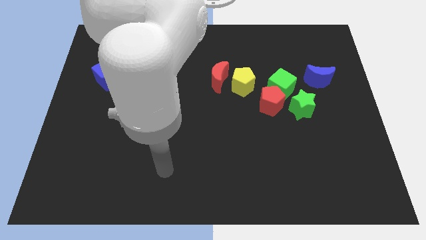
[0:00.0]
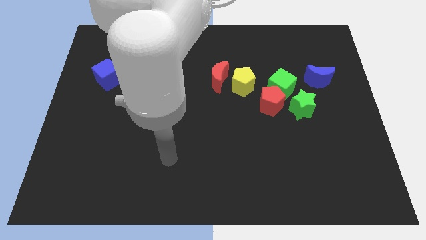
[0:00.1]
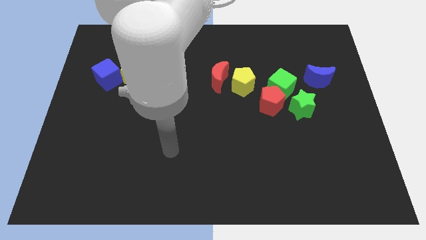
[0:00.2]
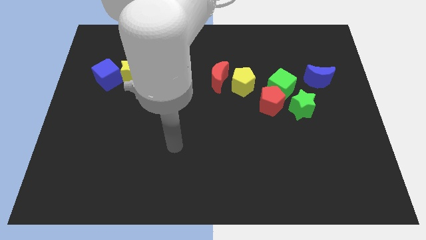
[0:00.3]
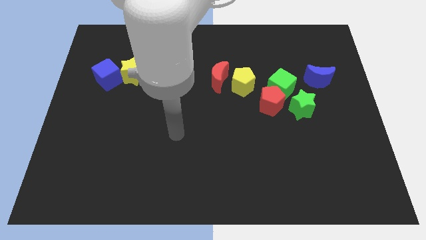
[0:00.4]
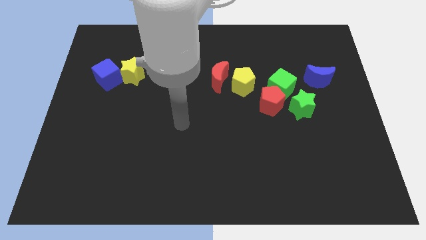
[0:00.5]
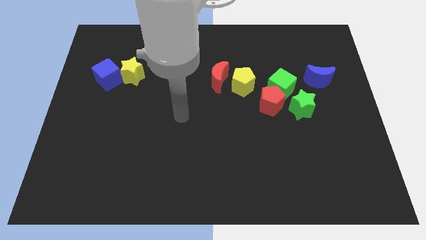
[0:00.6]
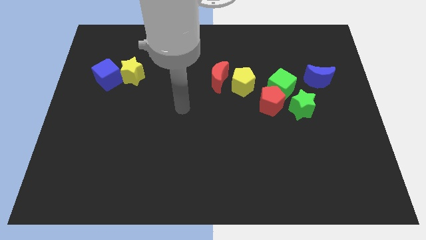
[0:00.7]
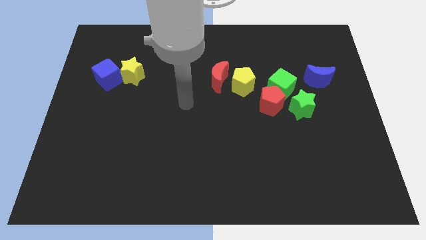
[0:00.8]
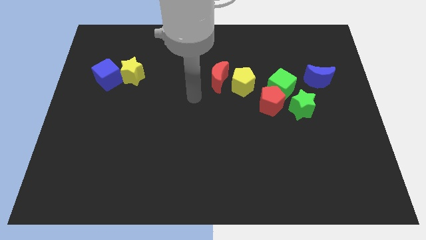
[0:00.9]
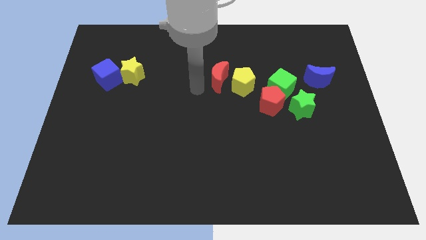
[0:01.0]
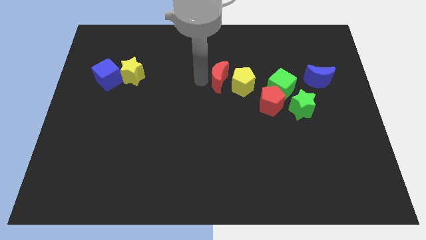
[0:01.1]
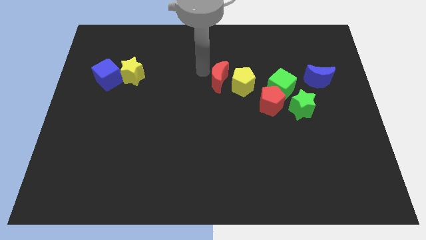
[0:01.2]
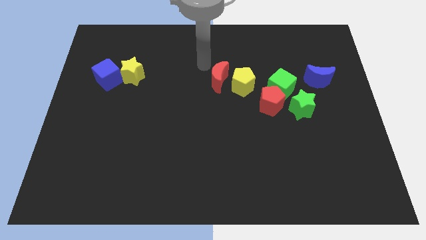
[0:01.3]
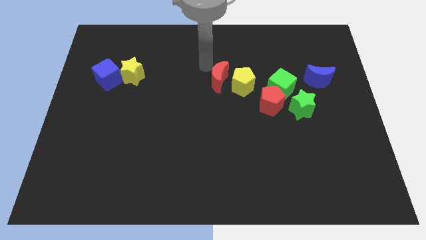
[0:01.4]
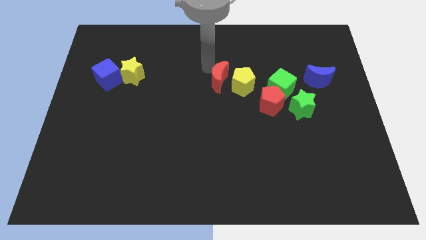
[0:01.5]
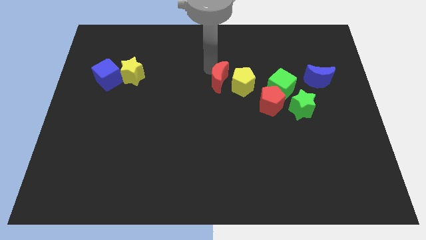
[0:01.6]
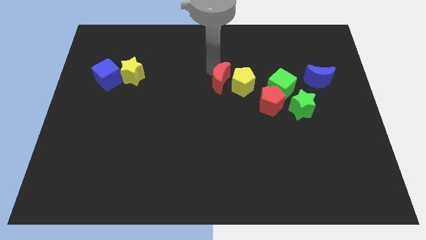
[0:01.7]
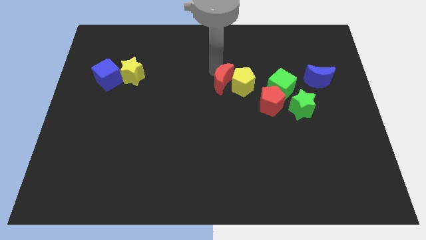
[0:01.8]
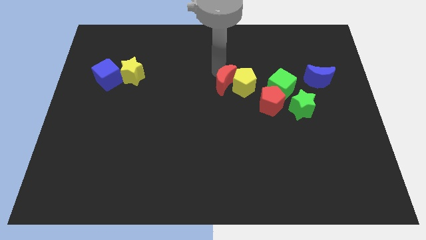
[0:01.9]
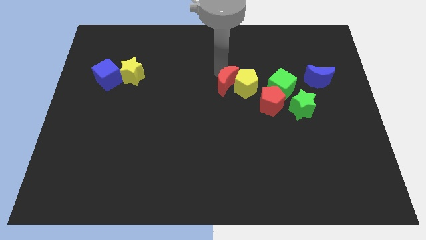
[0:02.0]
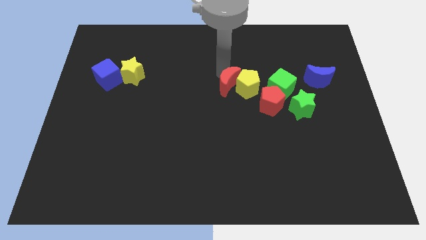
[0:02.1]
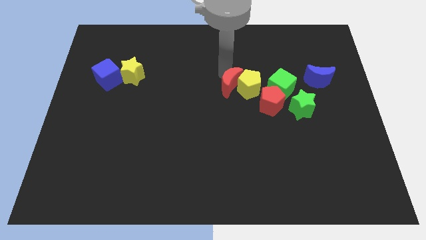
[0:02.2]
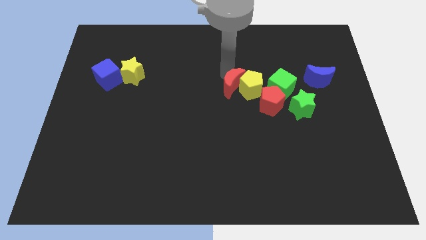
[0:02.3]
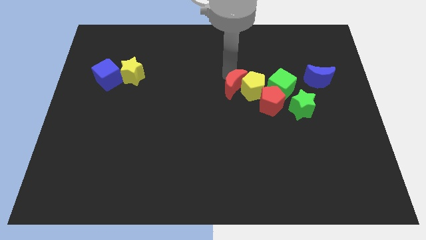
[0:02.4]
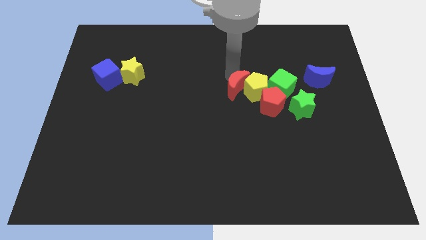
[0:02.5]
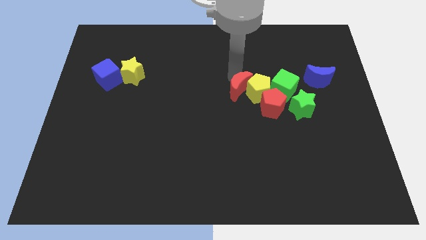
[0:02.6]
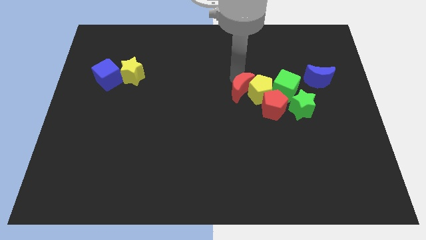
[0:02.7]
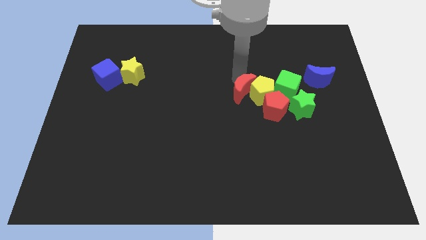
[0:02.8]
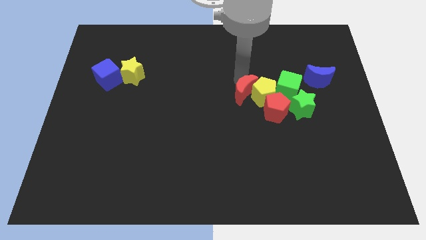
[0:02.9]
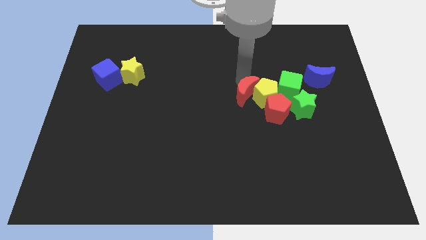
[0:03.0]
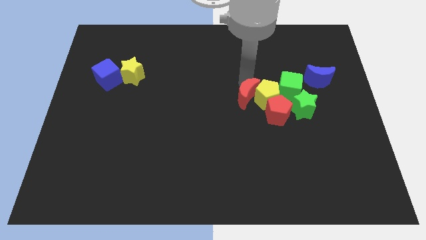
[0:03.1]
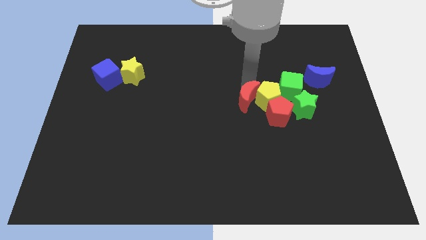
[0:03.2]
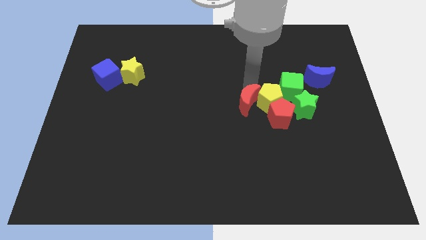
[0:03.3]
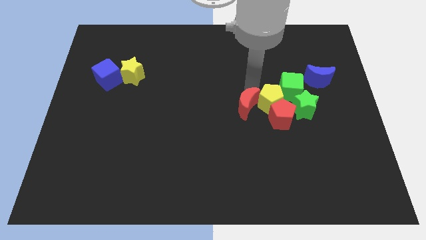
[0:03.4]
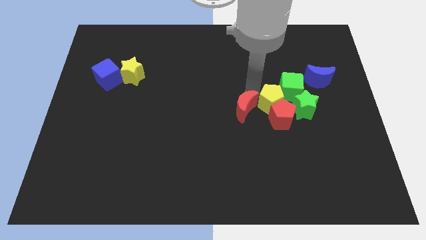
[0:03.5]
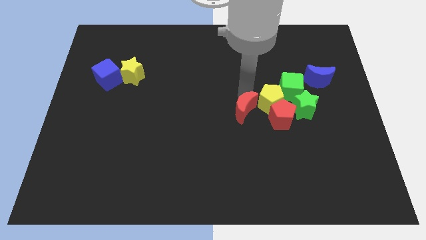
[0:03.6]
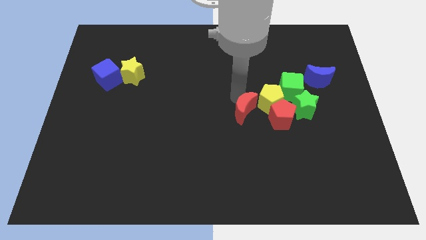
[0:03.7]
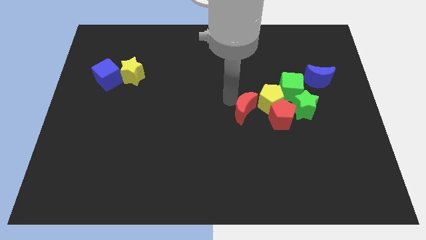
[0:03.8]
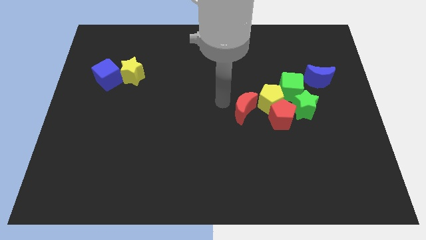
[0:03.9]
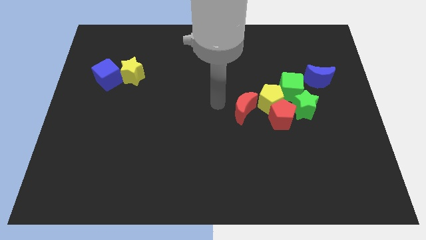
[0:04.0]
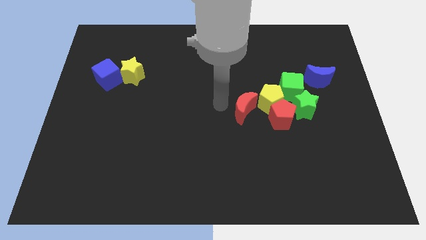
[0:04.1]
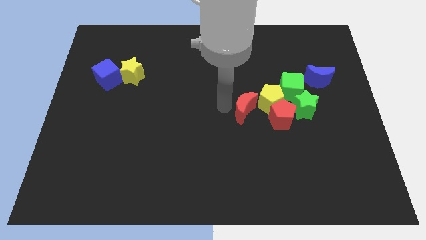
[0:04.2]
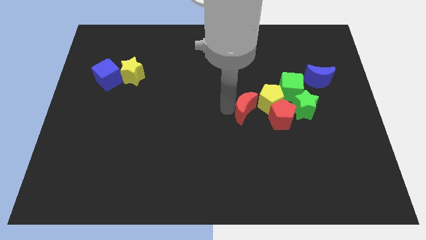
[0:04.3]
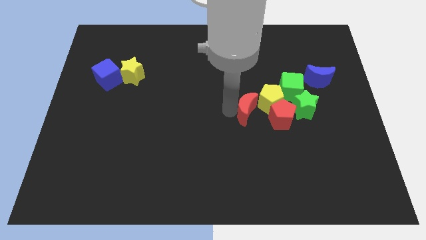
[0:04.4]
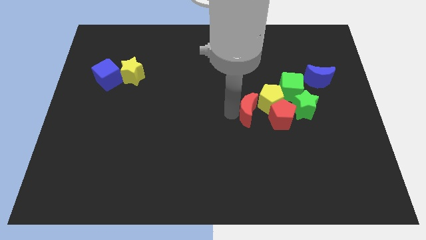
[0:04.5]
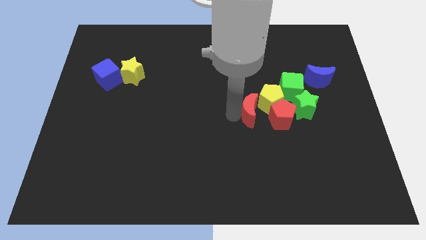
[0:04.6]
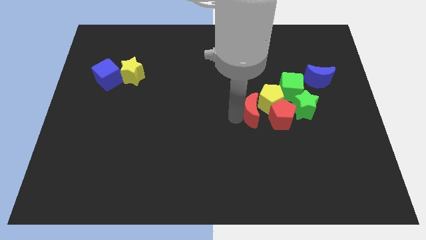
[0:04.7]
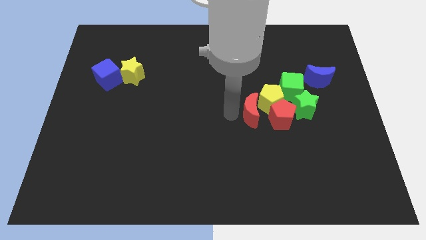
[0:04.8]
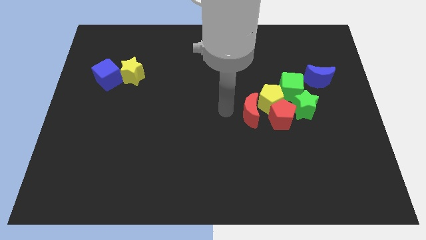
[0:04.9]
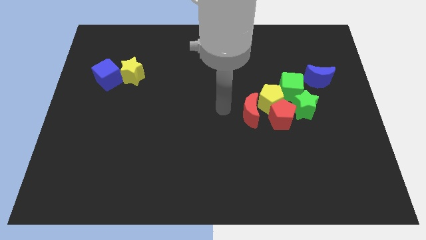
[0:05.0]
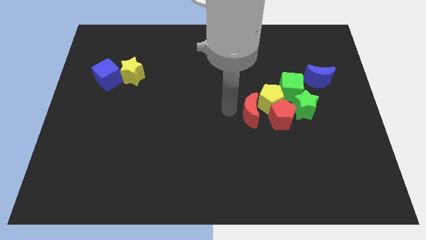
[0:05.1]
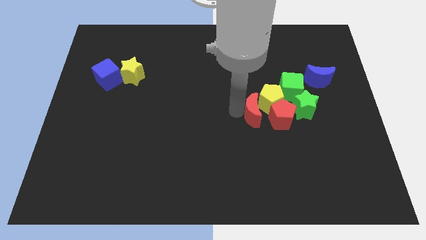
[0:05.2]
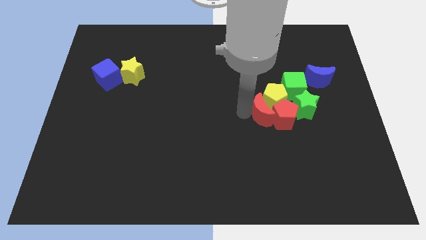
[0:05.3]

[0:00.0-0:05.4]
put the red moon next to the red pentagon

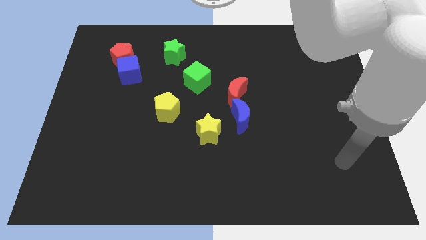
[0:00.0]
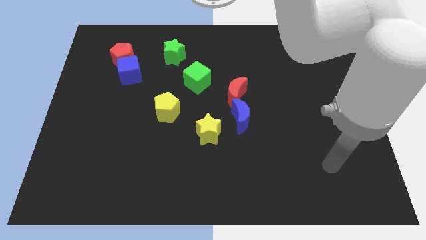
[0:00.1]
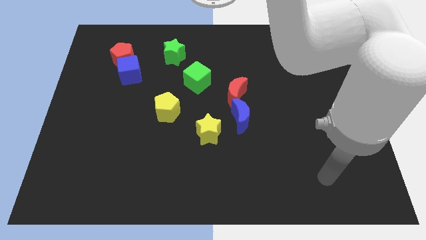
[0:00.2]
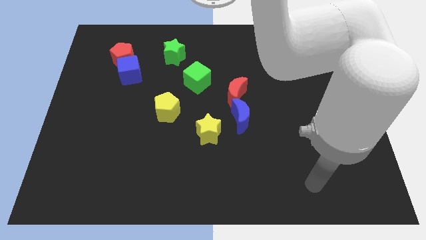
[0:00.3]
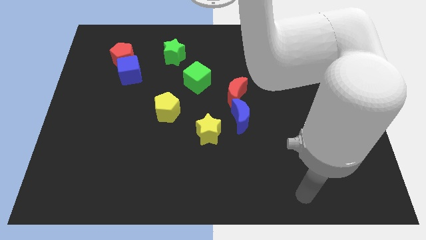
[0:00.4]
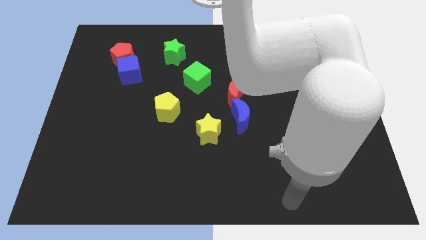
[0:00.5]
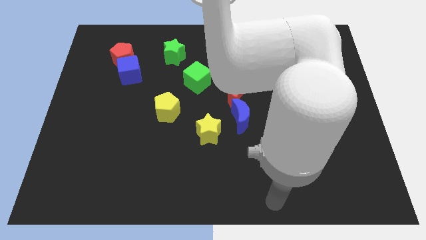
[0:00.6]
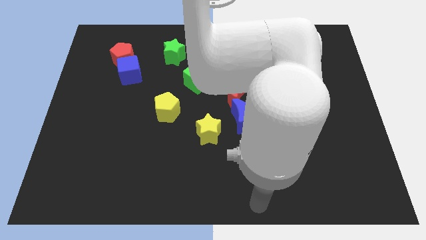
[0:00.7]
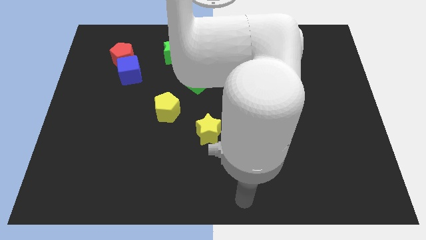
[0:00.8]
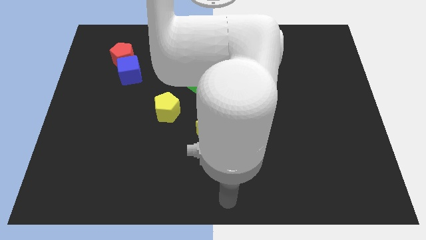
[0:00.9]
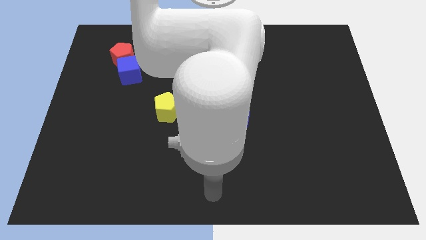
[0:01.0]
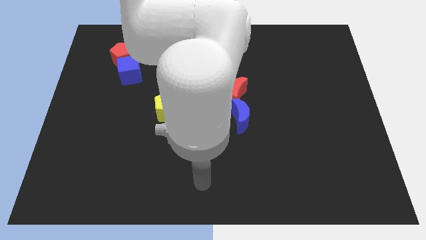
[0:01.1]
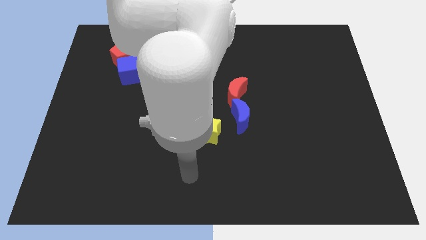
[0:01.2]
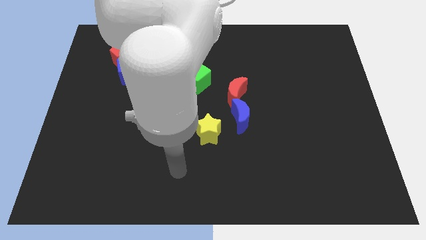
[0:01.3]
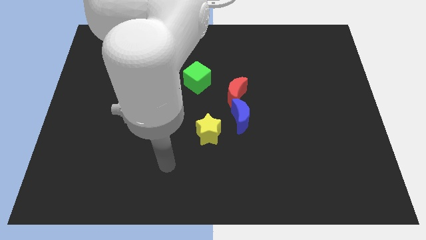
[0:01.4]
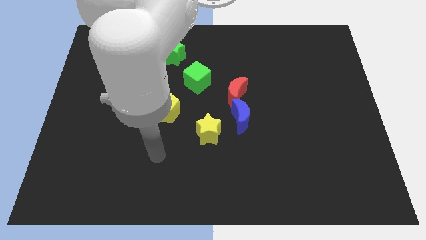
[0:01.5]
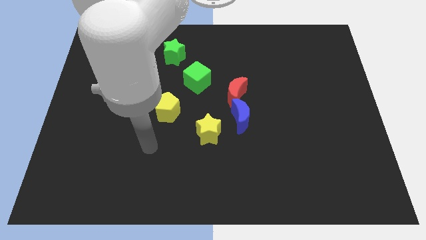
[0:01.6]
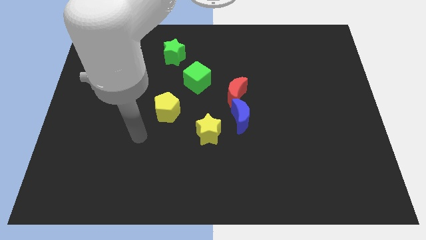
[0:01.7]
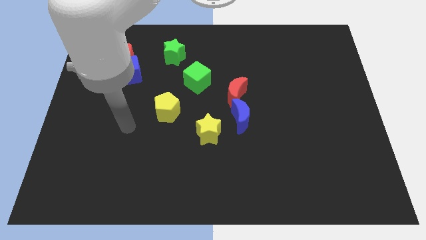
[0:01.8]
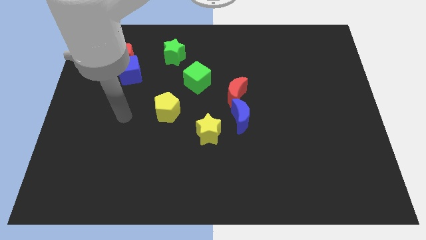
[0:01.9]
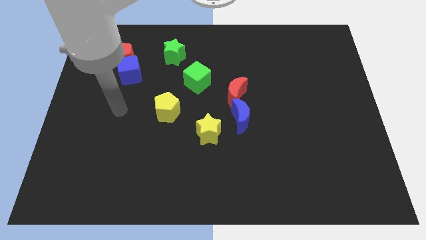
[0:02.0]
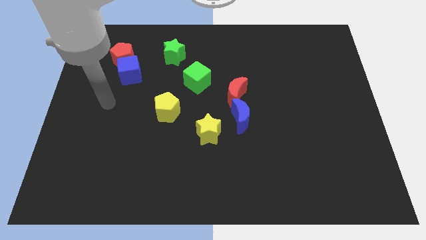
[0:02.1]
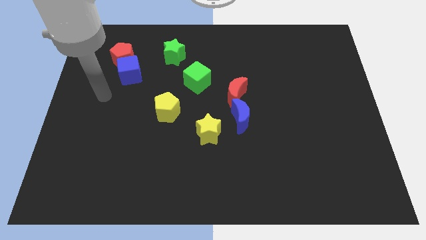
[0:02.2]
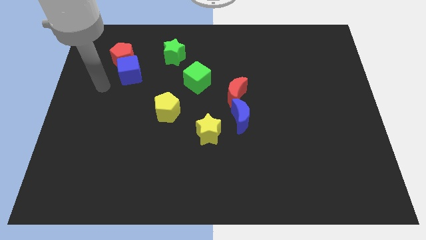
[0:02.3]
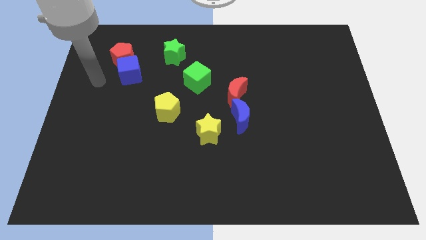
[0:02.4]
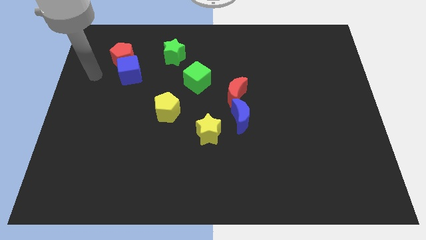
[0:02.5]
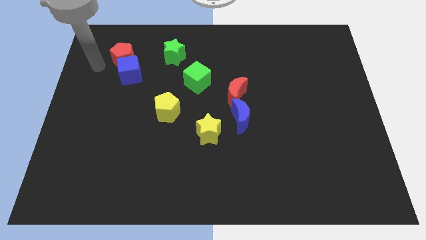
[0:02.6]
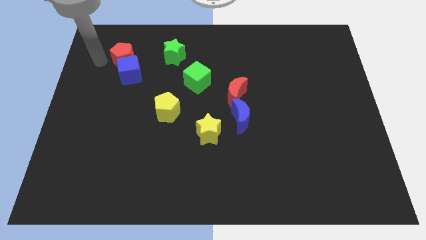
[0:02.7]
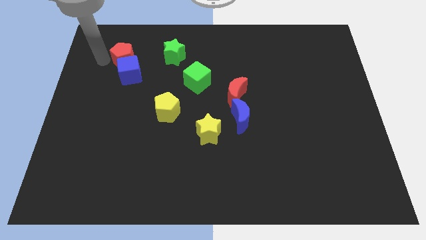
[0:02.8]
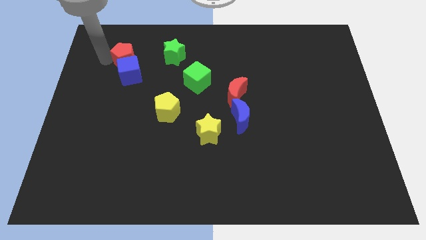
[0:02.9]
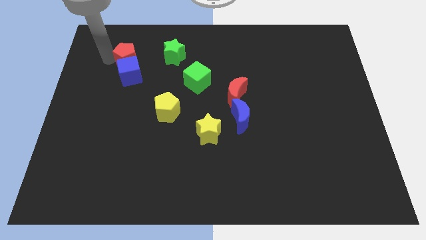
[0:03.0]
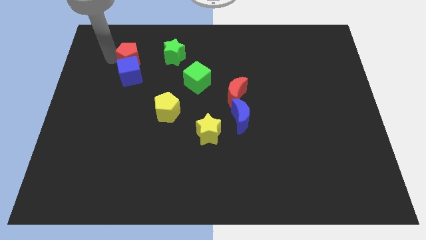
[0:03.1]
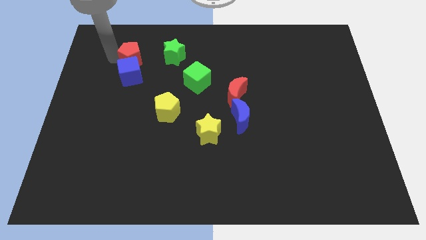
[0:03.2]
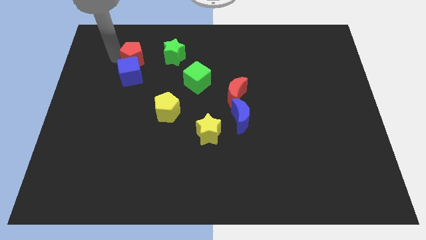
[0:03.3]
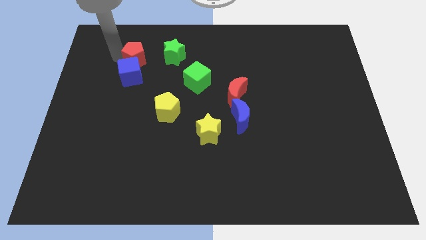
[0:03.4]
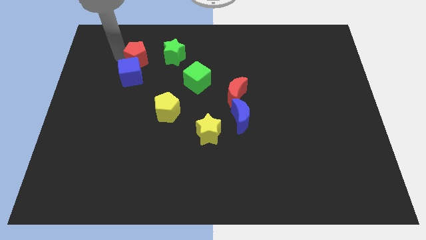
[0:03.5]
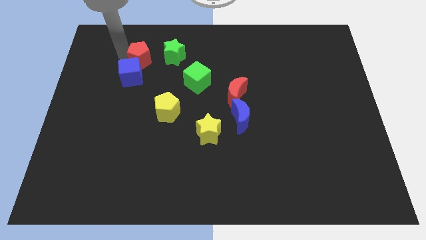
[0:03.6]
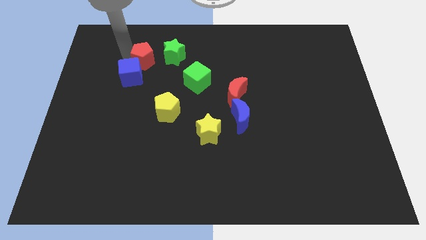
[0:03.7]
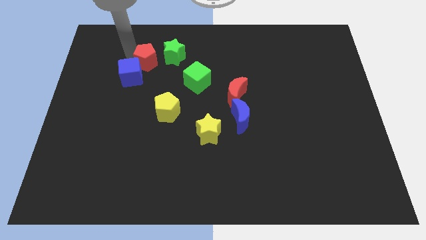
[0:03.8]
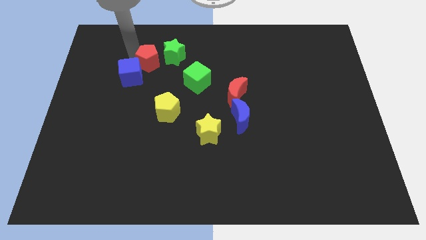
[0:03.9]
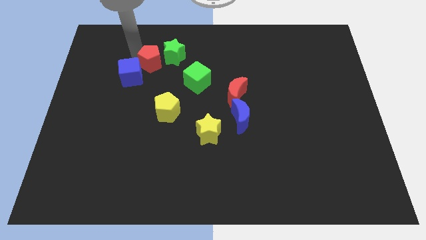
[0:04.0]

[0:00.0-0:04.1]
put the red pentagon next to the green star
